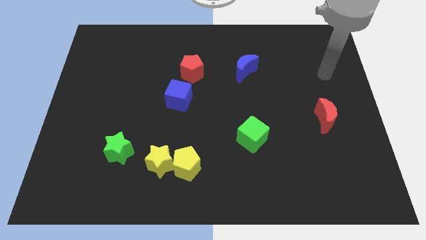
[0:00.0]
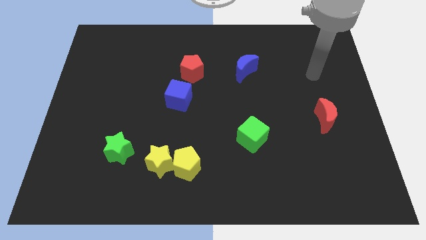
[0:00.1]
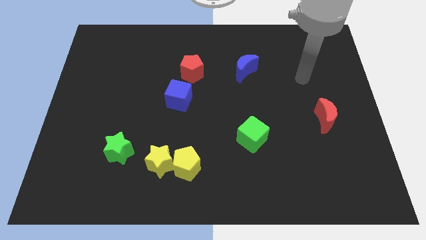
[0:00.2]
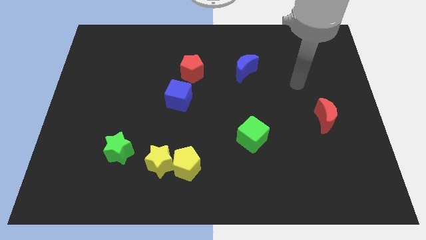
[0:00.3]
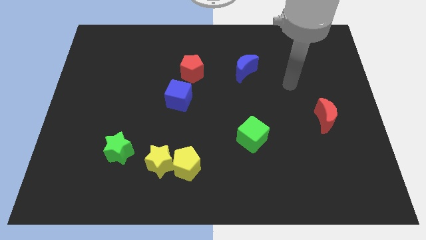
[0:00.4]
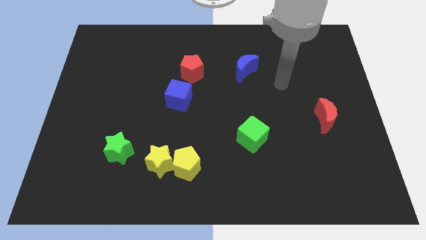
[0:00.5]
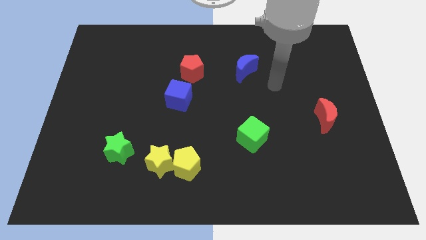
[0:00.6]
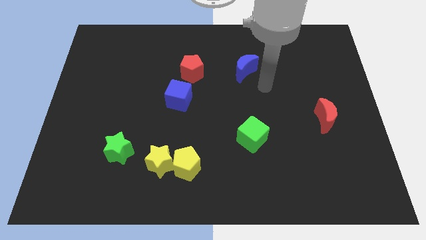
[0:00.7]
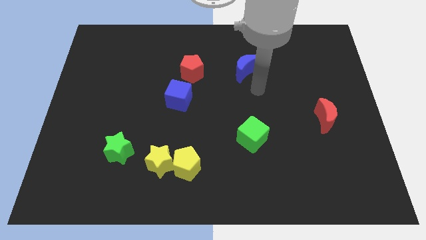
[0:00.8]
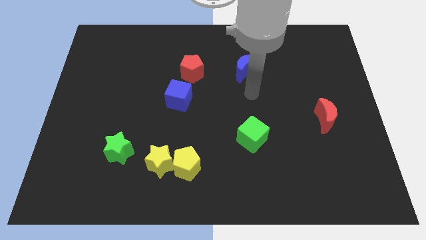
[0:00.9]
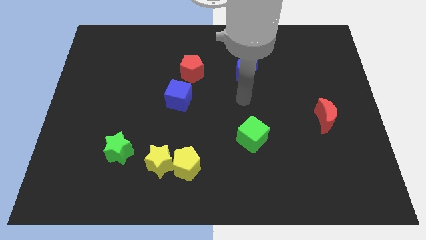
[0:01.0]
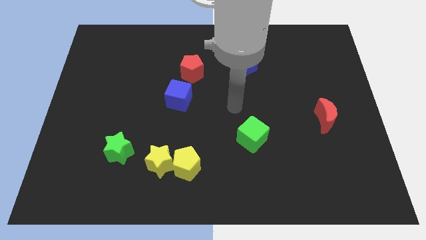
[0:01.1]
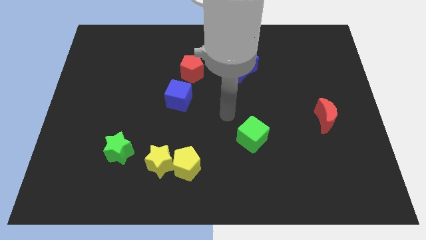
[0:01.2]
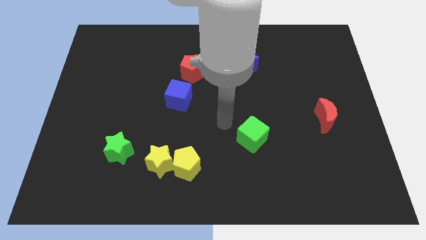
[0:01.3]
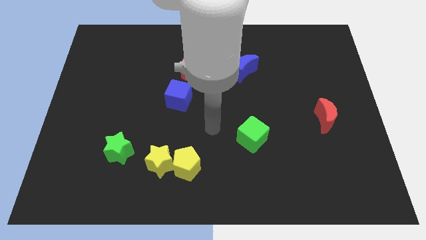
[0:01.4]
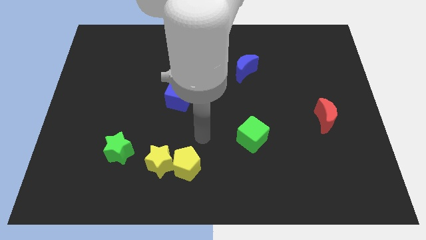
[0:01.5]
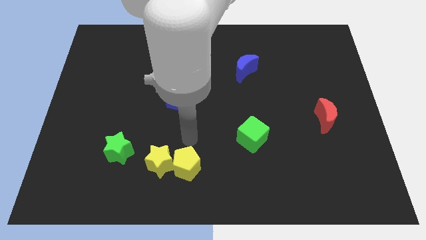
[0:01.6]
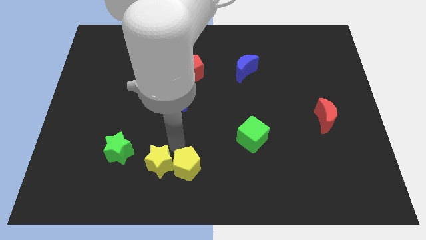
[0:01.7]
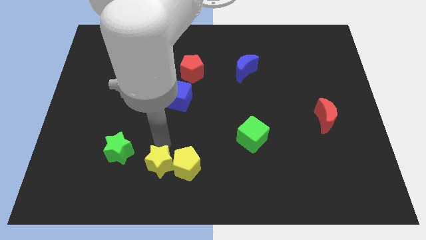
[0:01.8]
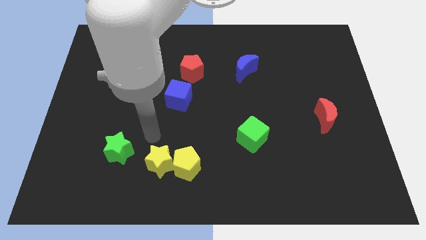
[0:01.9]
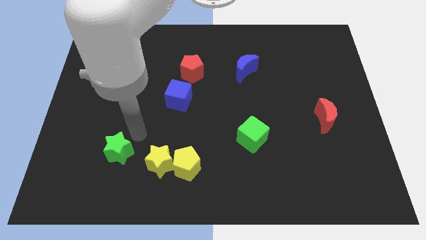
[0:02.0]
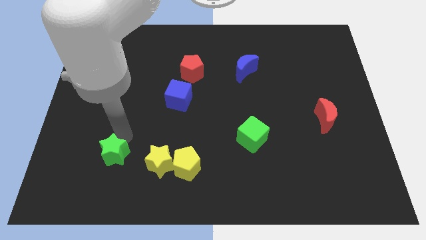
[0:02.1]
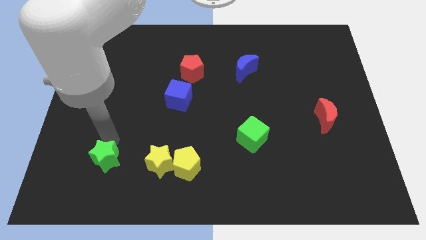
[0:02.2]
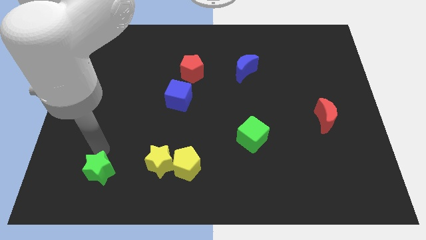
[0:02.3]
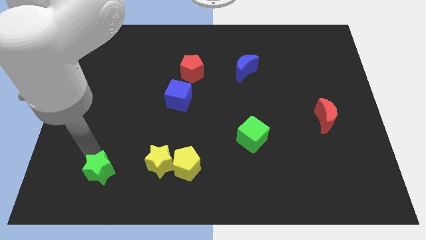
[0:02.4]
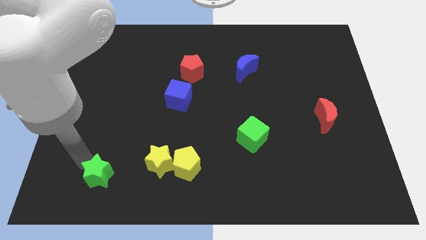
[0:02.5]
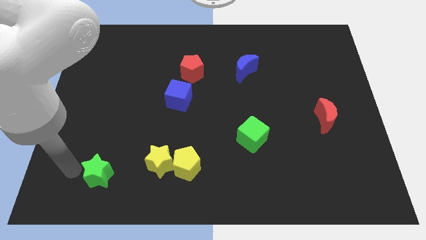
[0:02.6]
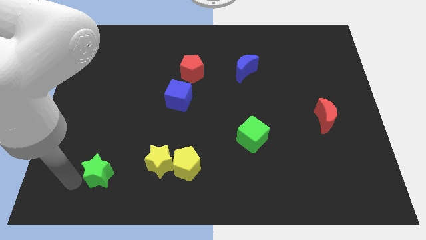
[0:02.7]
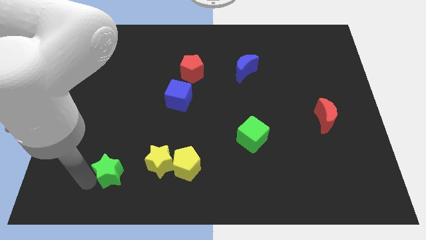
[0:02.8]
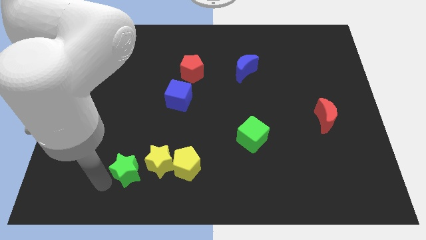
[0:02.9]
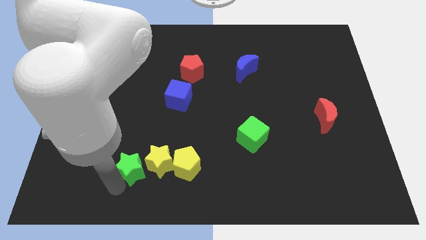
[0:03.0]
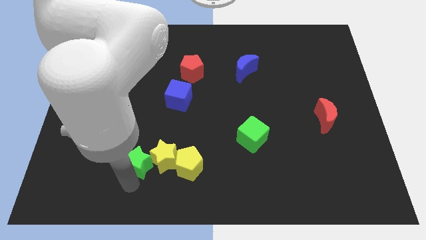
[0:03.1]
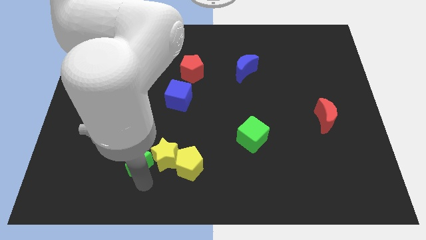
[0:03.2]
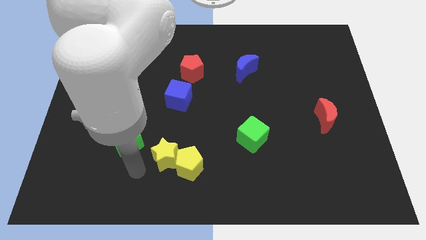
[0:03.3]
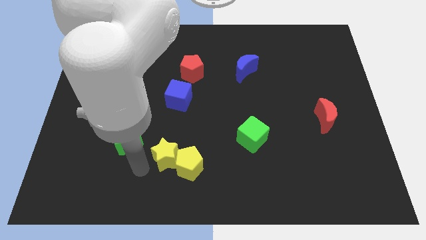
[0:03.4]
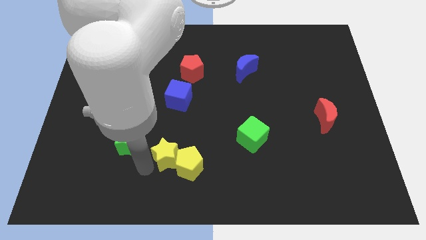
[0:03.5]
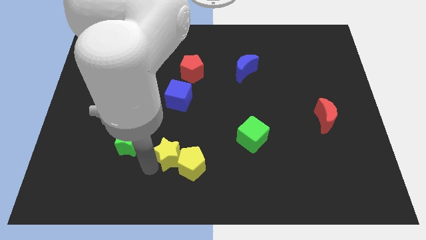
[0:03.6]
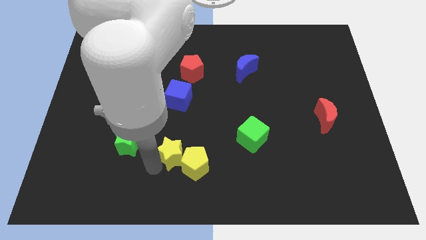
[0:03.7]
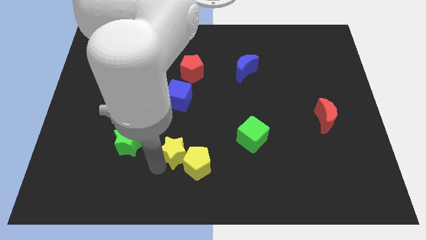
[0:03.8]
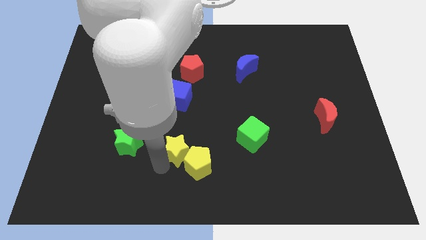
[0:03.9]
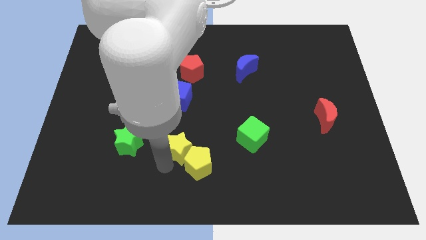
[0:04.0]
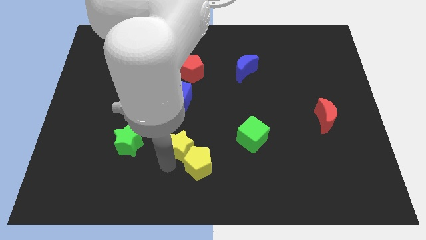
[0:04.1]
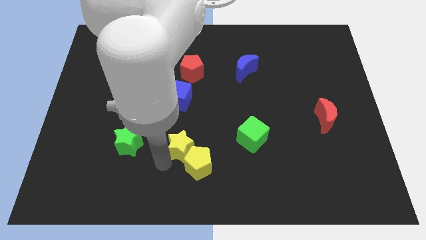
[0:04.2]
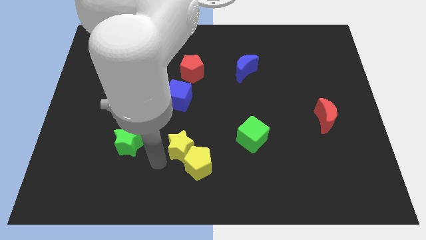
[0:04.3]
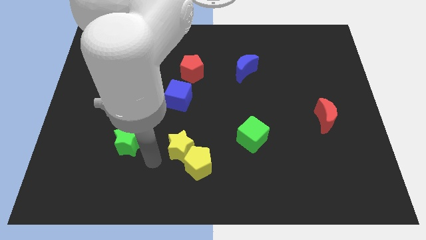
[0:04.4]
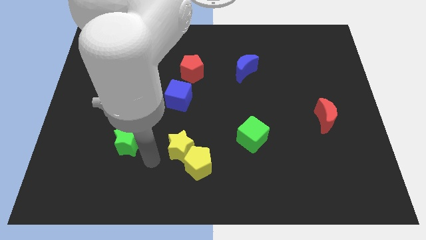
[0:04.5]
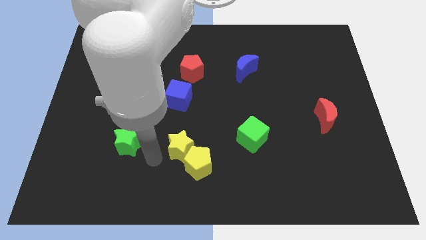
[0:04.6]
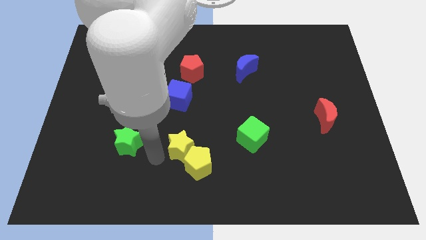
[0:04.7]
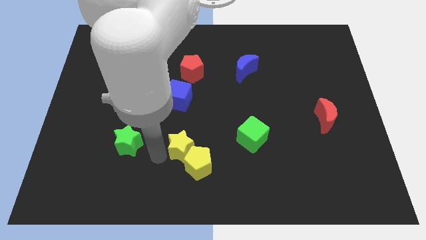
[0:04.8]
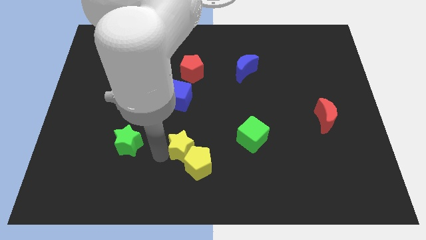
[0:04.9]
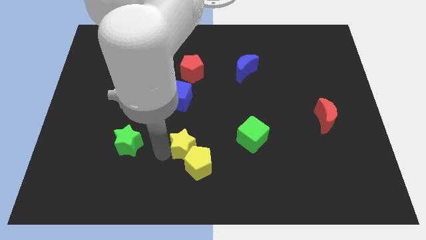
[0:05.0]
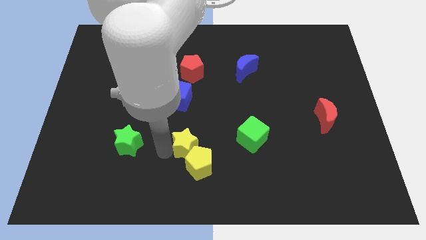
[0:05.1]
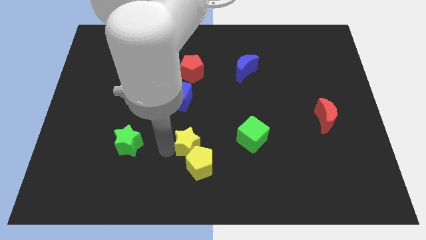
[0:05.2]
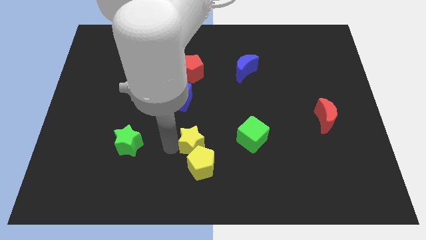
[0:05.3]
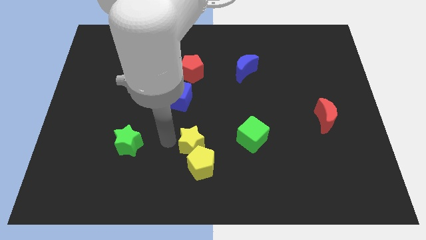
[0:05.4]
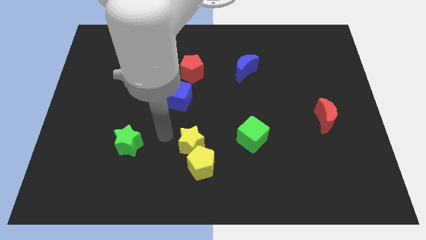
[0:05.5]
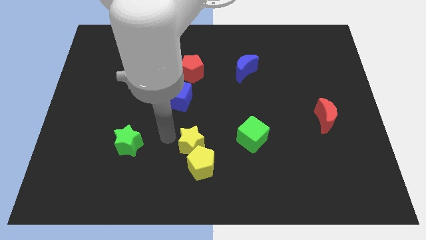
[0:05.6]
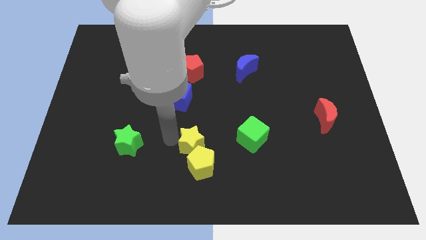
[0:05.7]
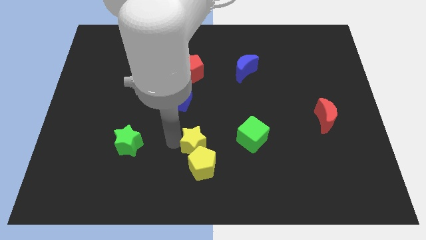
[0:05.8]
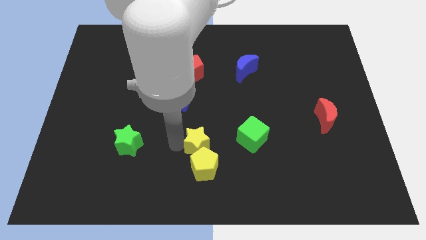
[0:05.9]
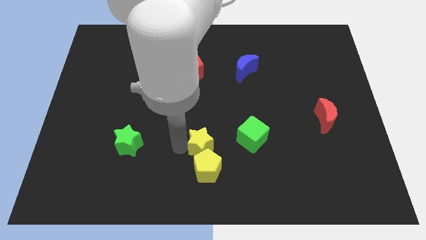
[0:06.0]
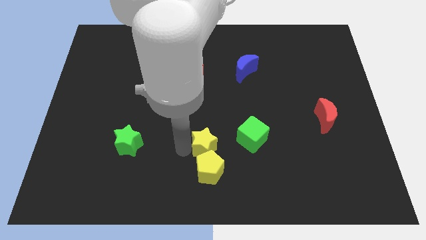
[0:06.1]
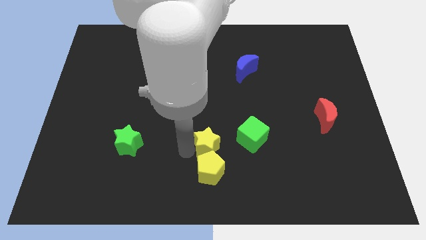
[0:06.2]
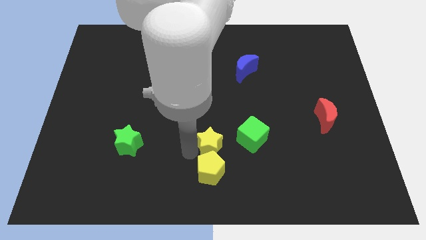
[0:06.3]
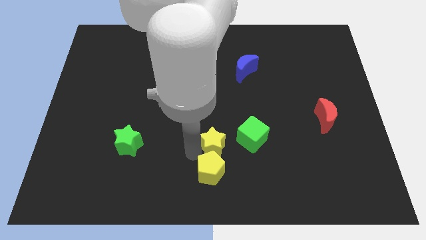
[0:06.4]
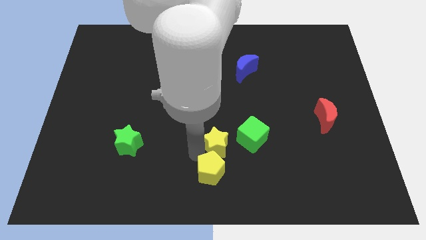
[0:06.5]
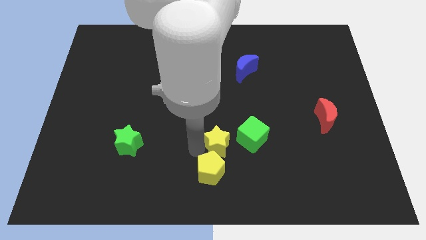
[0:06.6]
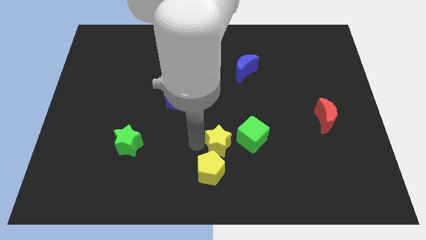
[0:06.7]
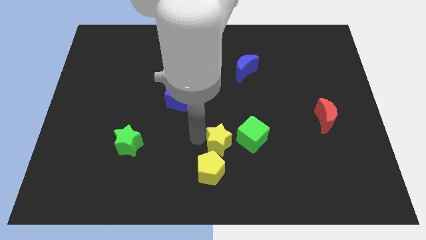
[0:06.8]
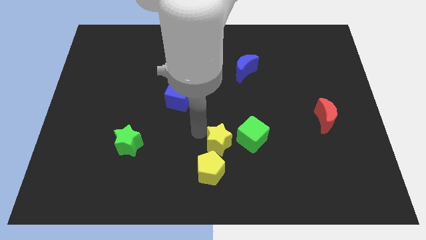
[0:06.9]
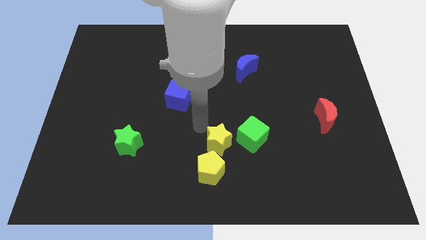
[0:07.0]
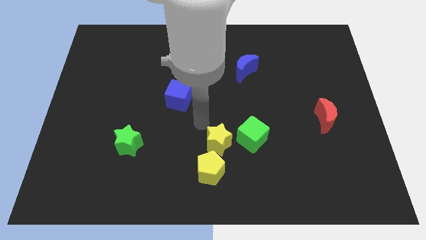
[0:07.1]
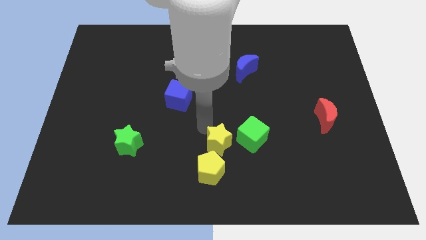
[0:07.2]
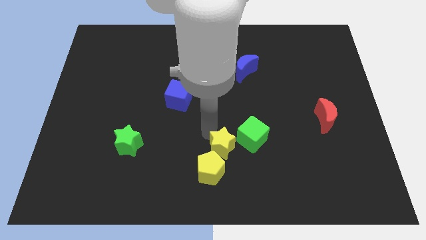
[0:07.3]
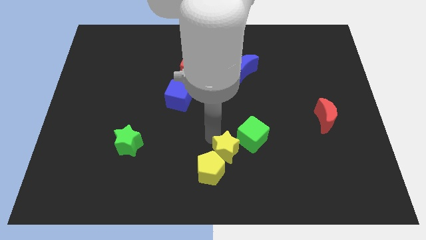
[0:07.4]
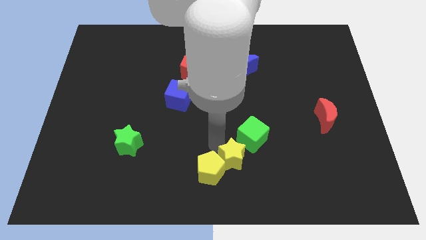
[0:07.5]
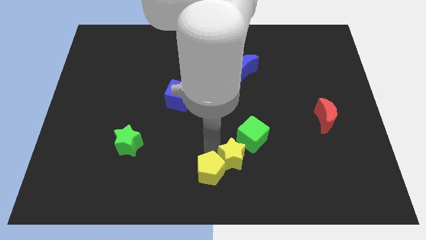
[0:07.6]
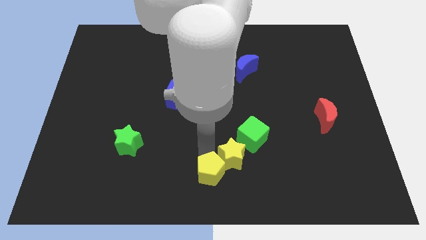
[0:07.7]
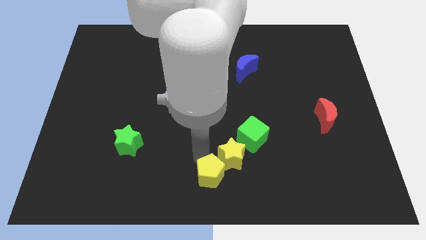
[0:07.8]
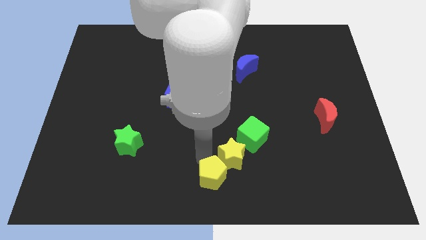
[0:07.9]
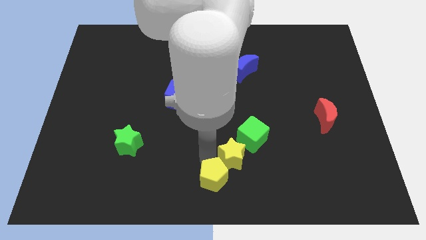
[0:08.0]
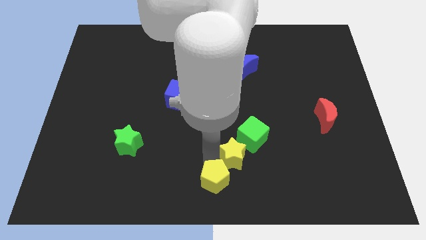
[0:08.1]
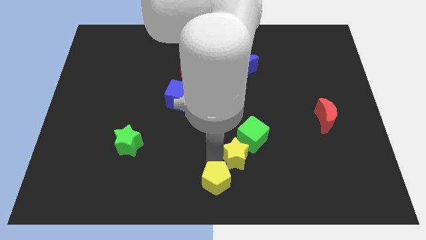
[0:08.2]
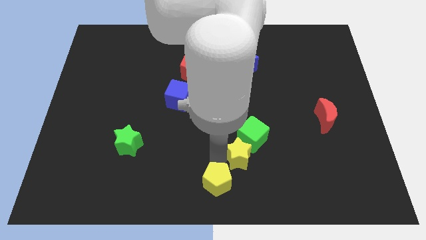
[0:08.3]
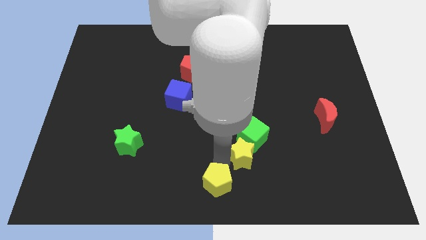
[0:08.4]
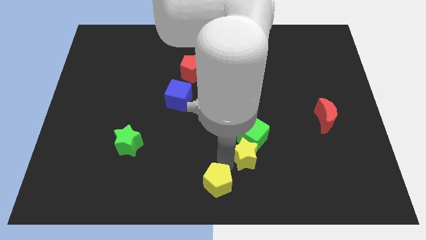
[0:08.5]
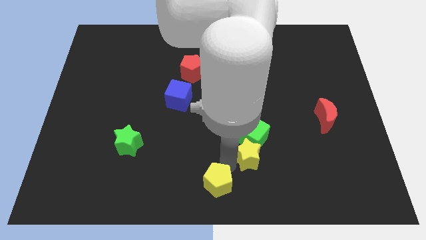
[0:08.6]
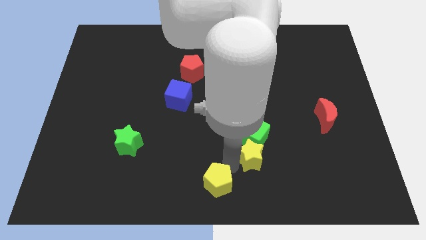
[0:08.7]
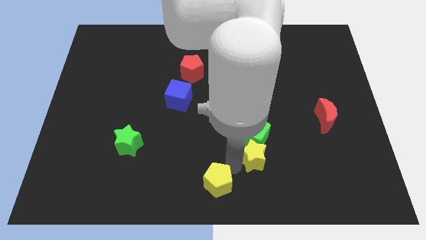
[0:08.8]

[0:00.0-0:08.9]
move the yellow star to the right
